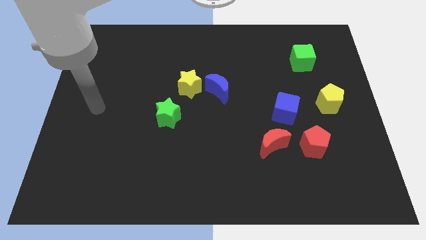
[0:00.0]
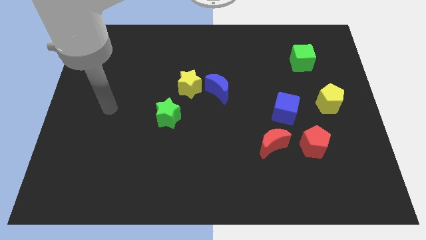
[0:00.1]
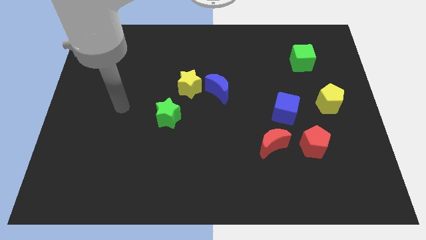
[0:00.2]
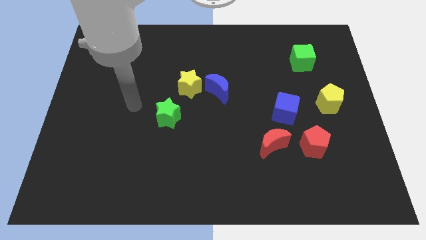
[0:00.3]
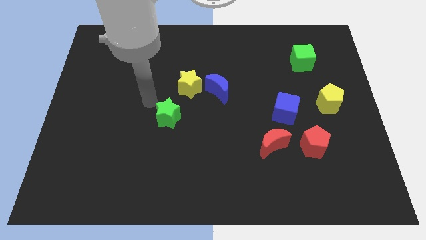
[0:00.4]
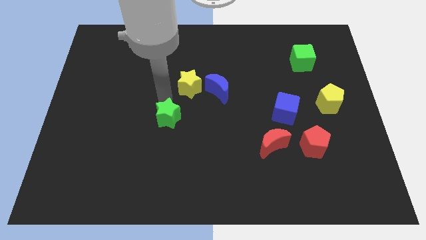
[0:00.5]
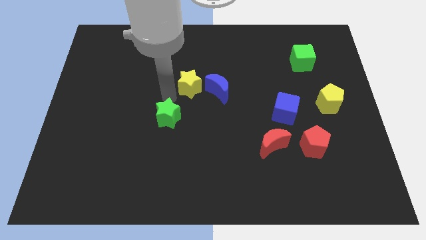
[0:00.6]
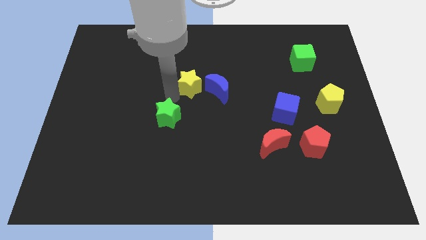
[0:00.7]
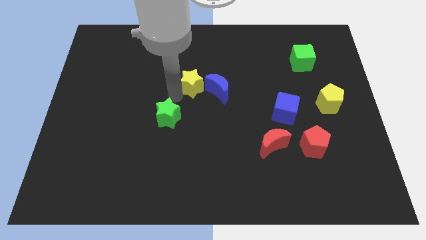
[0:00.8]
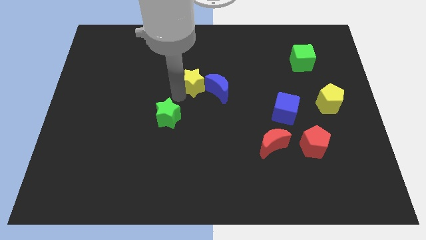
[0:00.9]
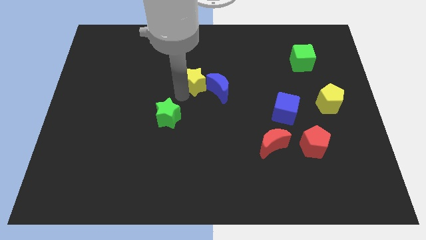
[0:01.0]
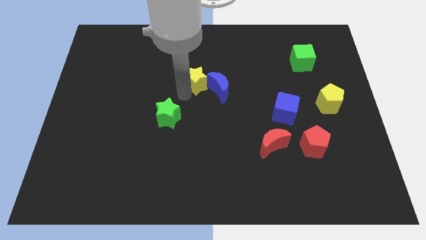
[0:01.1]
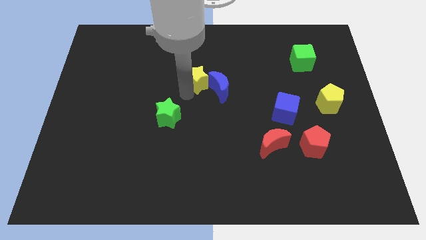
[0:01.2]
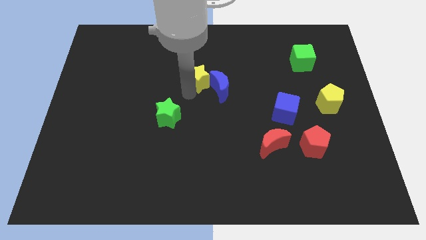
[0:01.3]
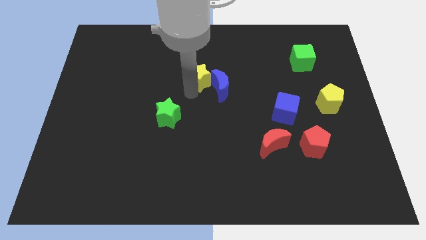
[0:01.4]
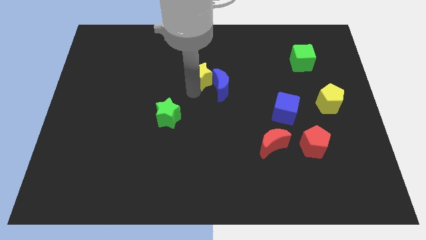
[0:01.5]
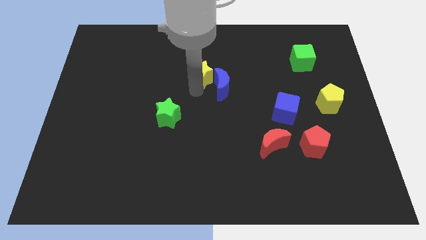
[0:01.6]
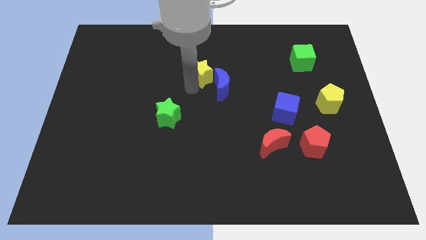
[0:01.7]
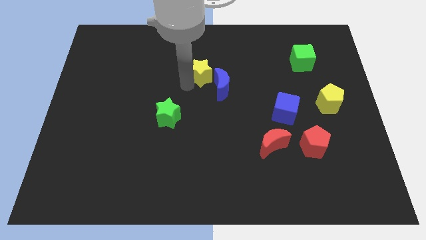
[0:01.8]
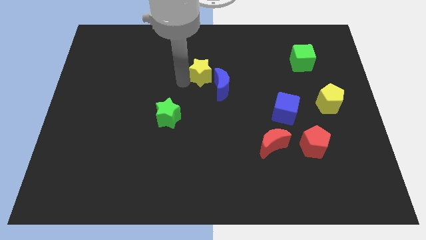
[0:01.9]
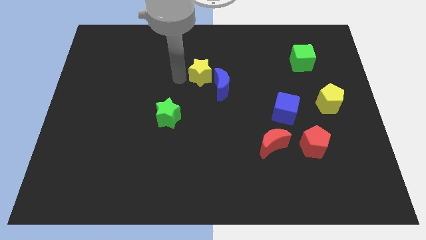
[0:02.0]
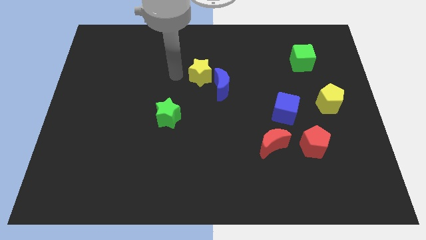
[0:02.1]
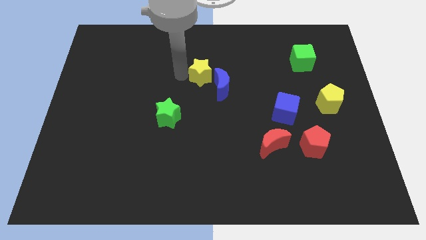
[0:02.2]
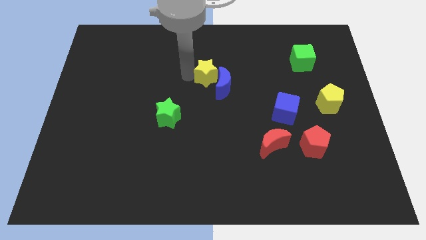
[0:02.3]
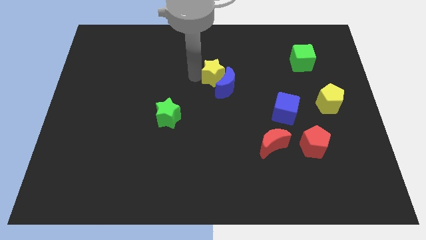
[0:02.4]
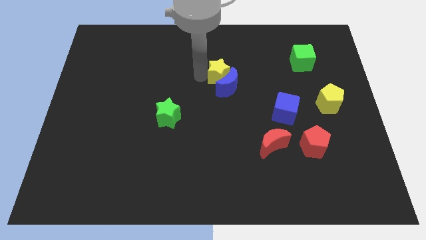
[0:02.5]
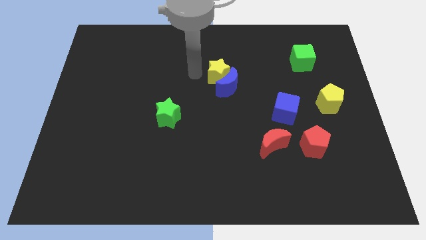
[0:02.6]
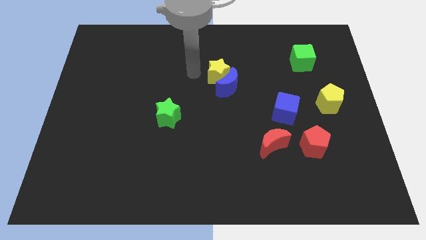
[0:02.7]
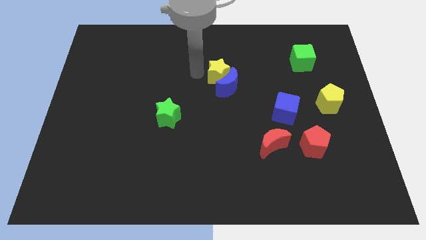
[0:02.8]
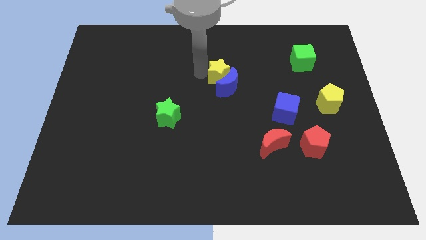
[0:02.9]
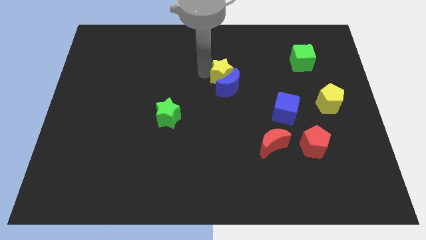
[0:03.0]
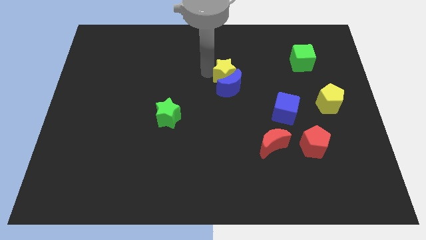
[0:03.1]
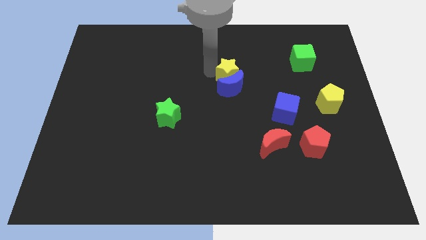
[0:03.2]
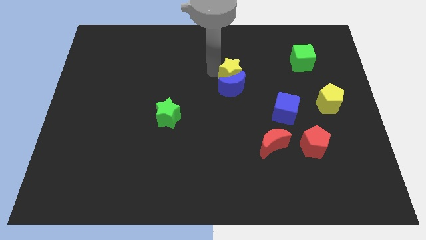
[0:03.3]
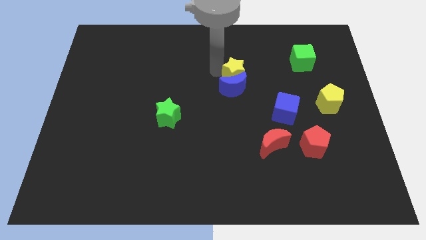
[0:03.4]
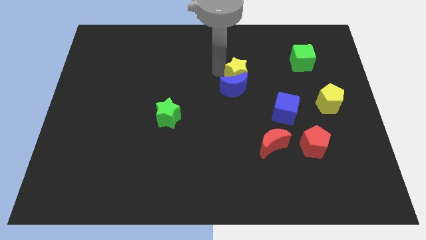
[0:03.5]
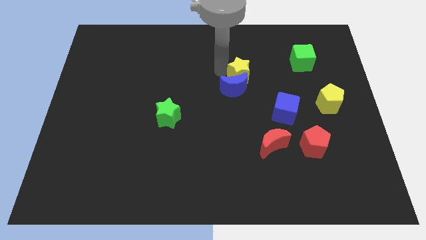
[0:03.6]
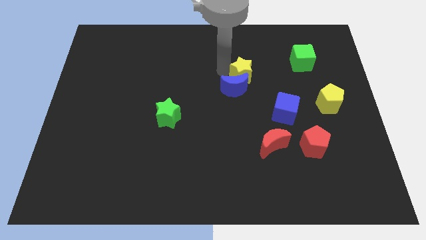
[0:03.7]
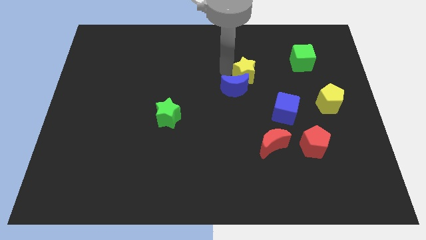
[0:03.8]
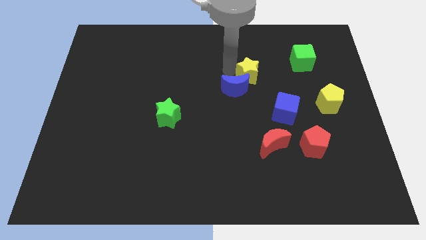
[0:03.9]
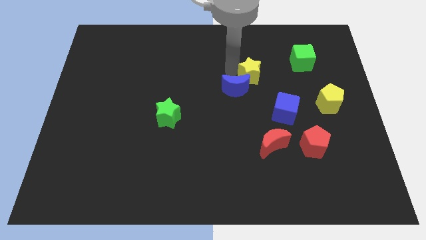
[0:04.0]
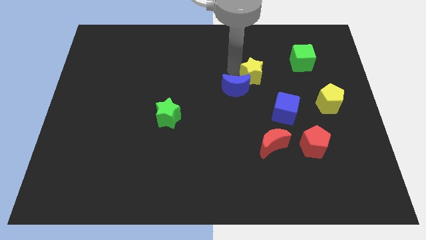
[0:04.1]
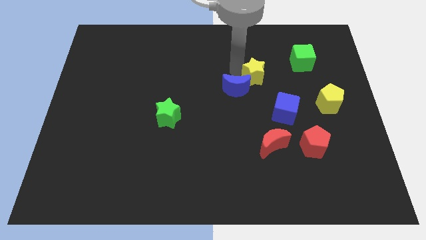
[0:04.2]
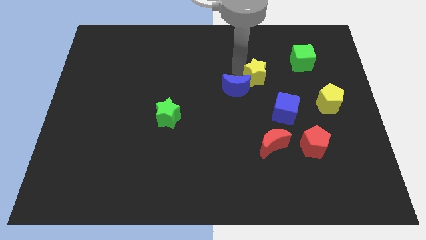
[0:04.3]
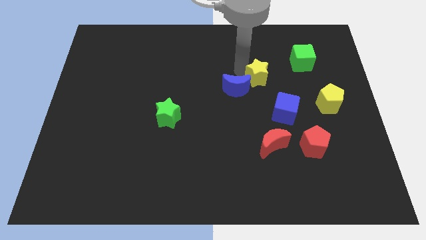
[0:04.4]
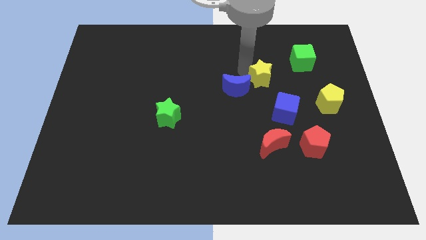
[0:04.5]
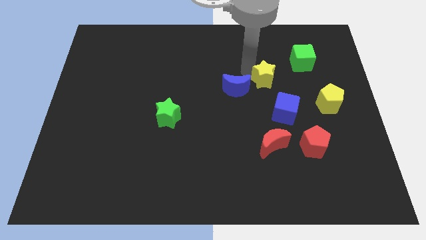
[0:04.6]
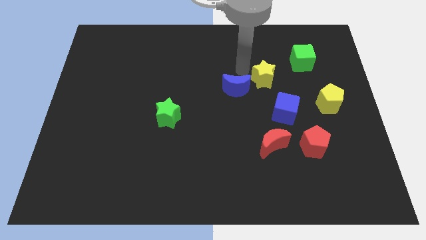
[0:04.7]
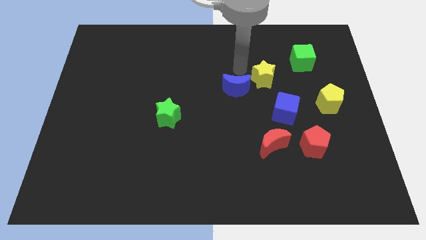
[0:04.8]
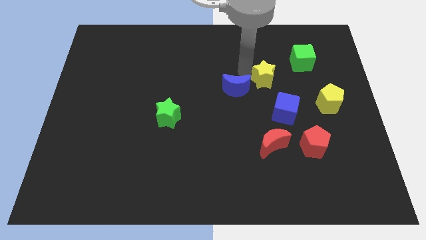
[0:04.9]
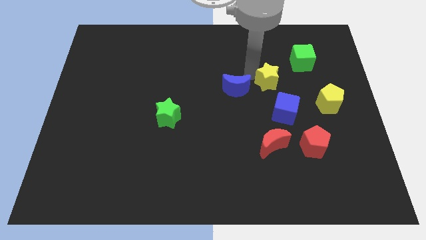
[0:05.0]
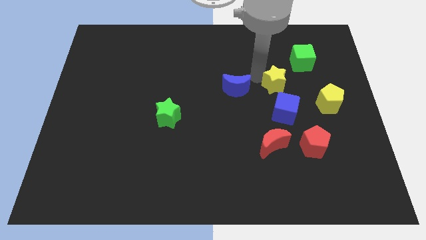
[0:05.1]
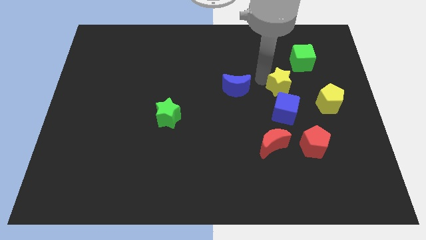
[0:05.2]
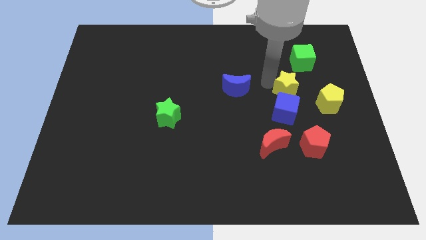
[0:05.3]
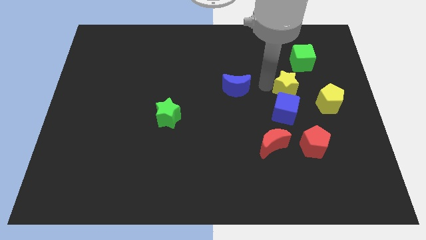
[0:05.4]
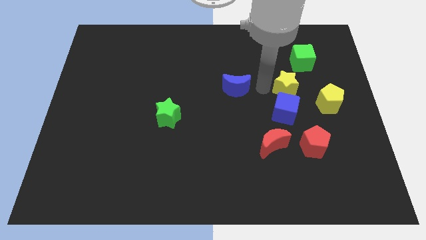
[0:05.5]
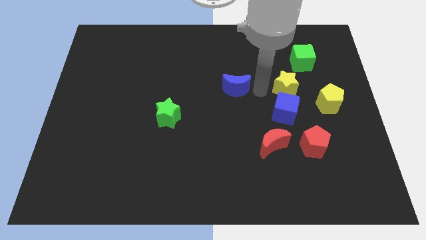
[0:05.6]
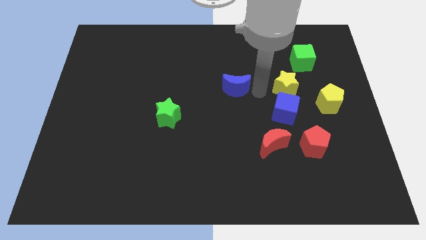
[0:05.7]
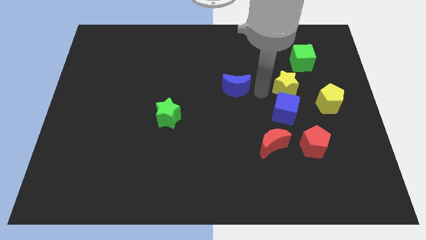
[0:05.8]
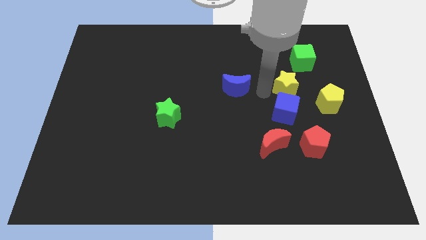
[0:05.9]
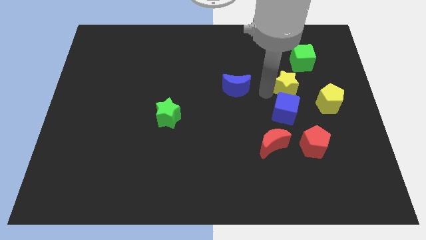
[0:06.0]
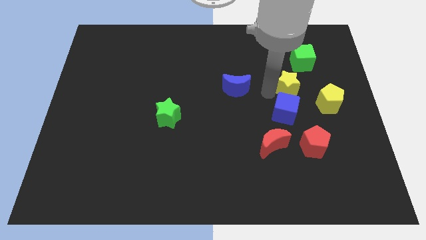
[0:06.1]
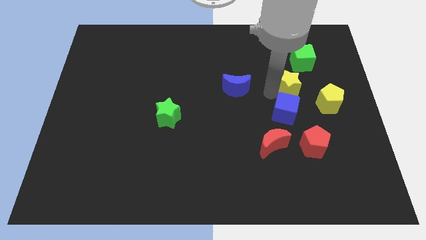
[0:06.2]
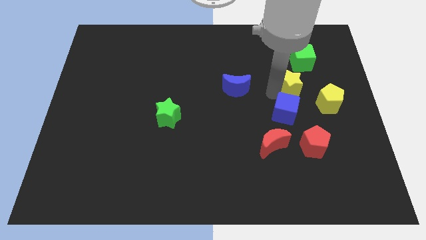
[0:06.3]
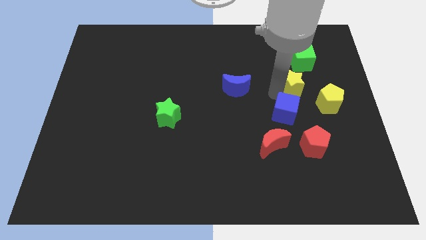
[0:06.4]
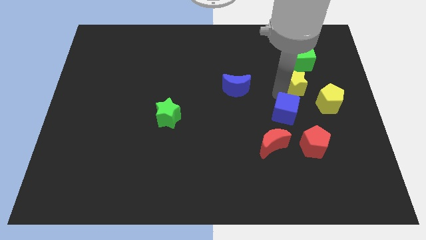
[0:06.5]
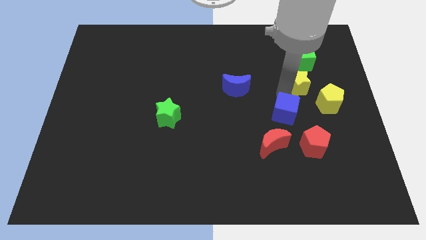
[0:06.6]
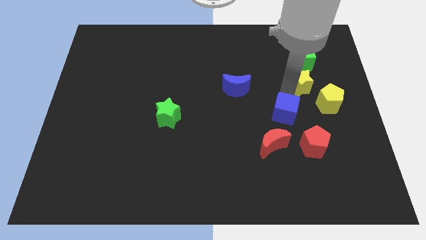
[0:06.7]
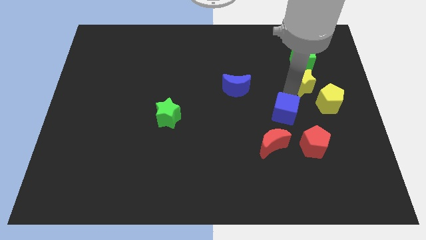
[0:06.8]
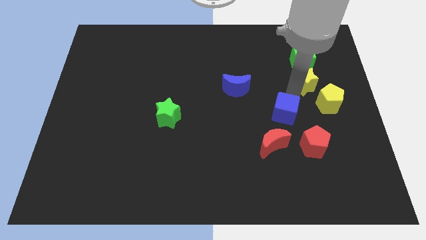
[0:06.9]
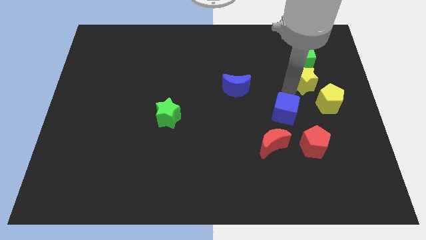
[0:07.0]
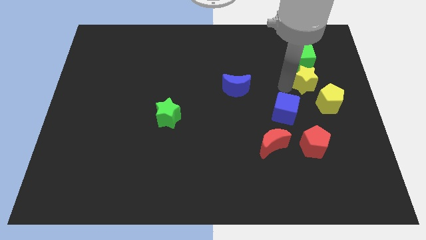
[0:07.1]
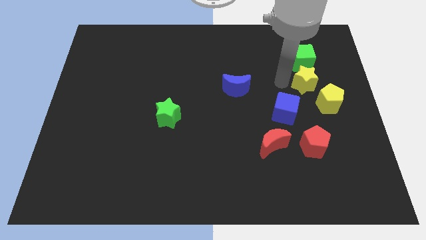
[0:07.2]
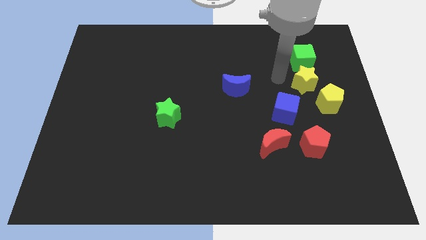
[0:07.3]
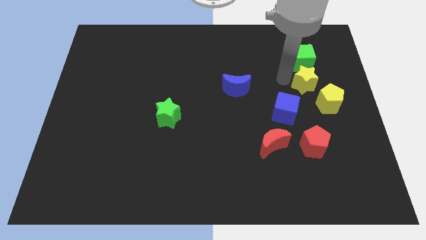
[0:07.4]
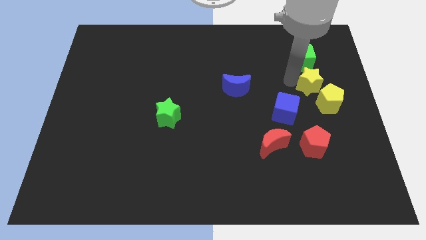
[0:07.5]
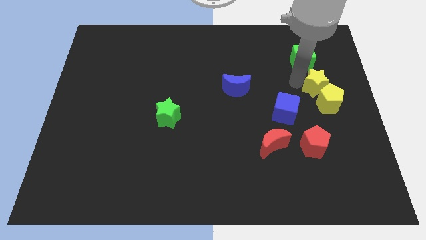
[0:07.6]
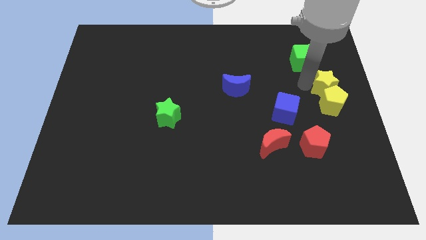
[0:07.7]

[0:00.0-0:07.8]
slide the yellow star to the right side of the board
